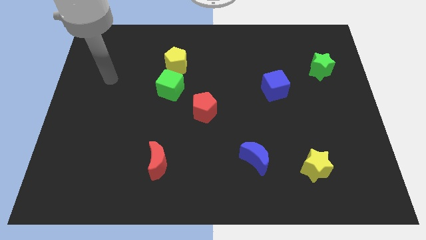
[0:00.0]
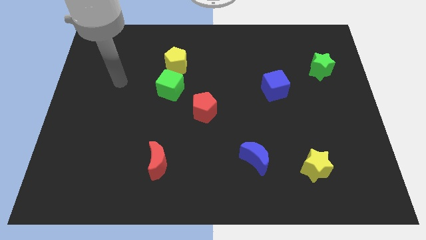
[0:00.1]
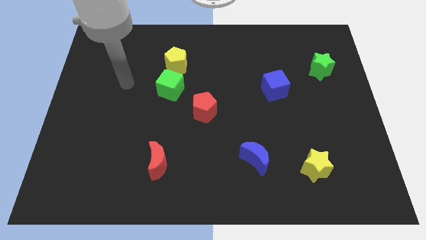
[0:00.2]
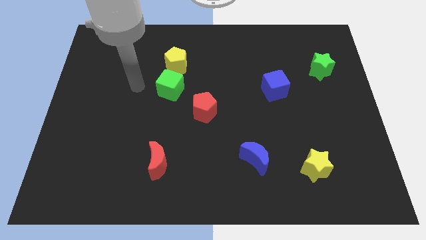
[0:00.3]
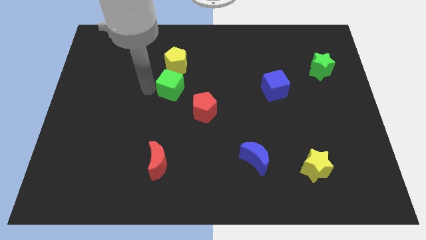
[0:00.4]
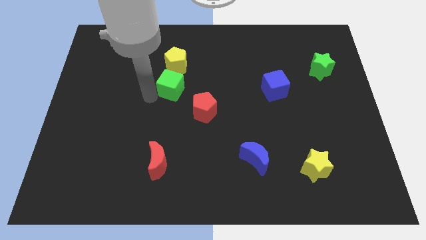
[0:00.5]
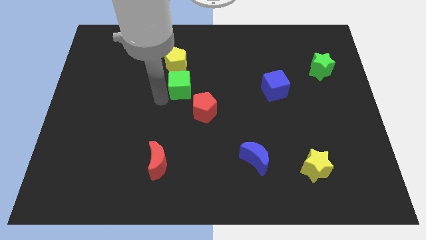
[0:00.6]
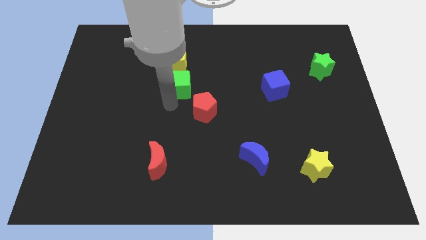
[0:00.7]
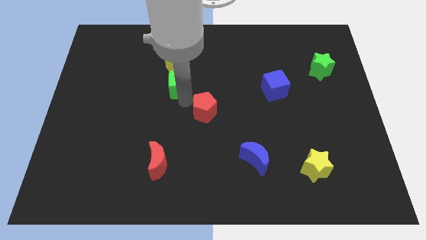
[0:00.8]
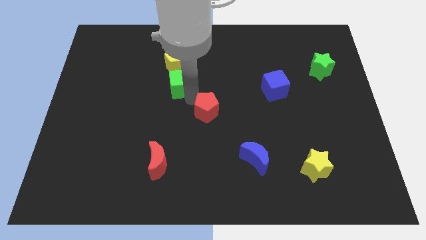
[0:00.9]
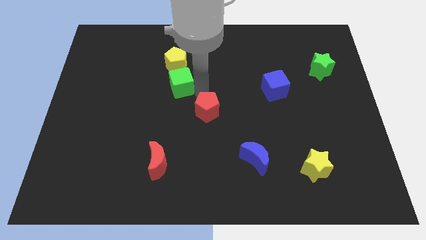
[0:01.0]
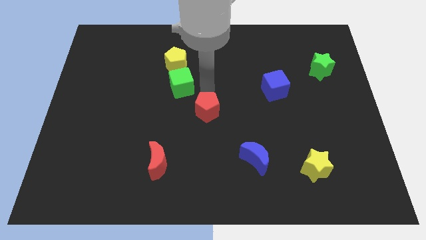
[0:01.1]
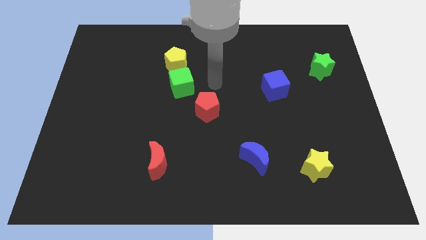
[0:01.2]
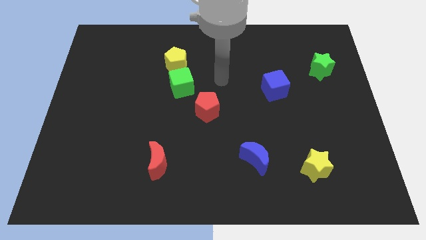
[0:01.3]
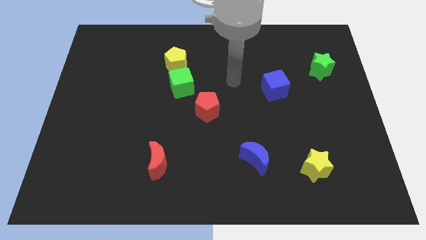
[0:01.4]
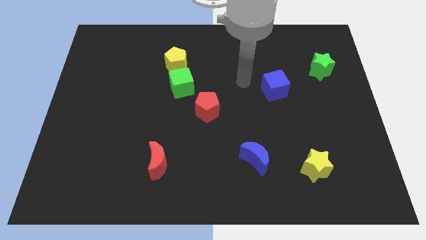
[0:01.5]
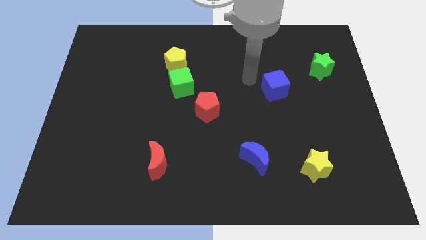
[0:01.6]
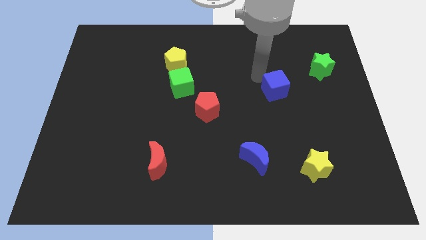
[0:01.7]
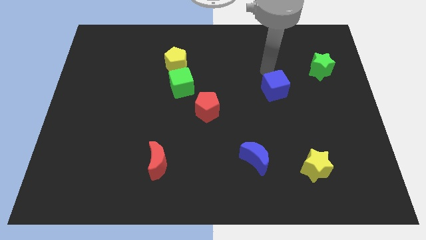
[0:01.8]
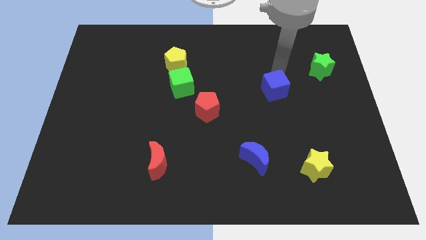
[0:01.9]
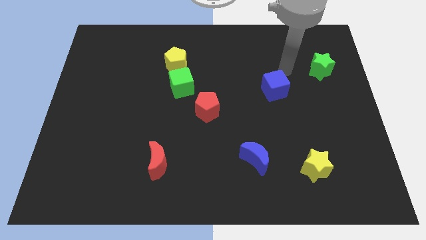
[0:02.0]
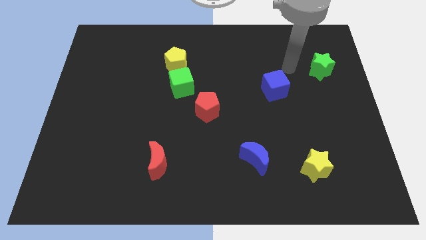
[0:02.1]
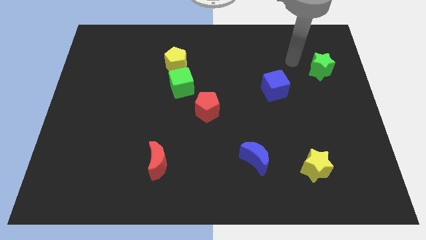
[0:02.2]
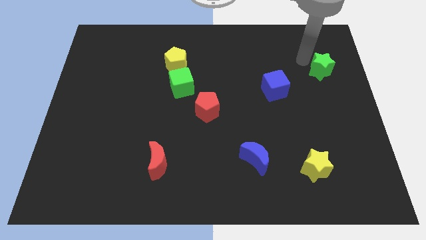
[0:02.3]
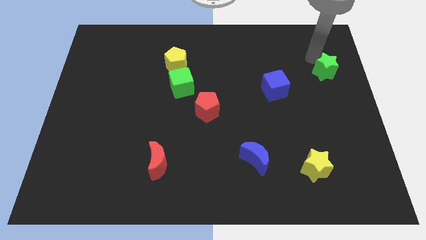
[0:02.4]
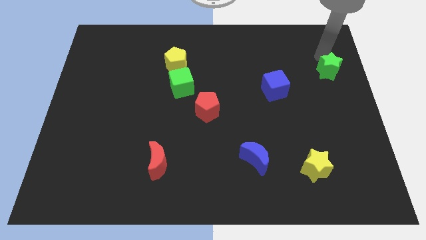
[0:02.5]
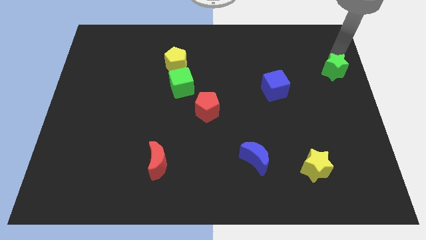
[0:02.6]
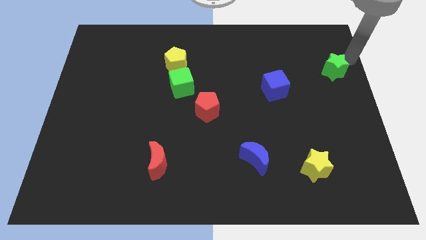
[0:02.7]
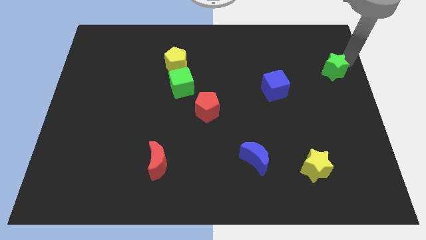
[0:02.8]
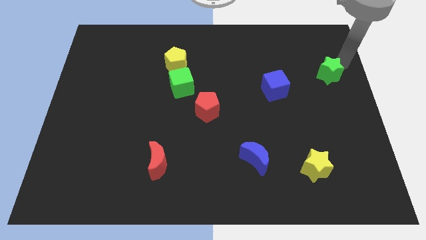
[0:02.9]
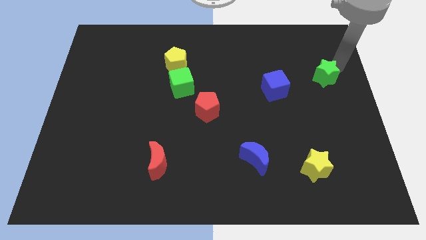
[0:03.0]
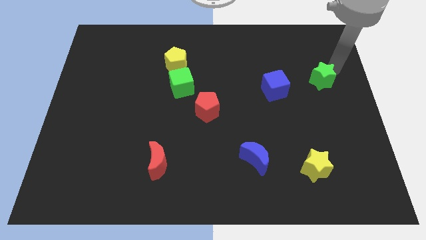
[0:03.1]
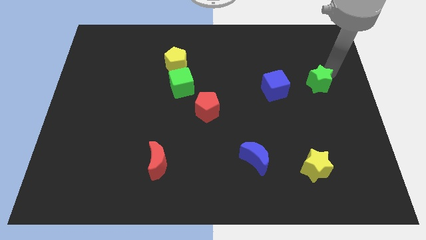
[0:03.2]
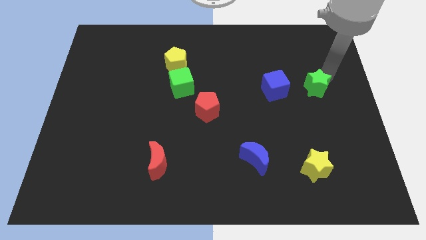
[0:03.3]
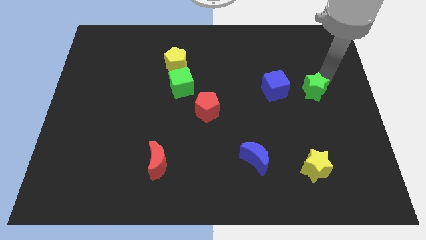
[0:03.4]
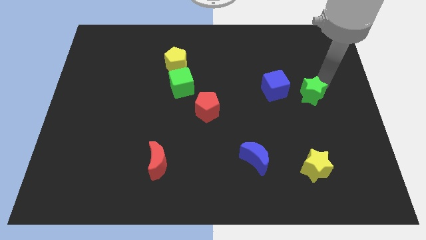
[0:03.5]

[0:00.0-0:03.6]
push the green star a little bit diagonally down and to the left

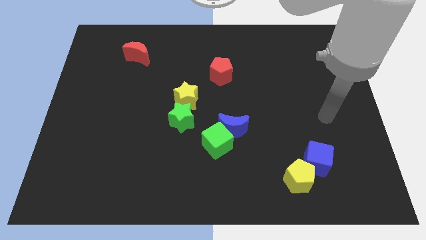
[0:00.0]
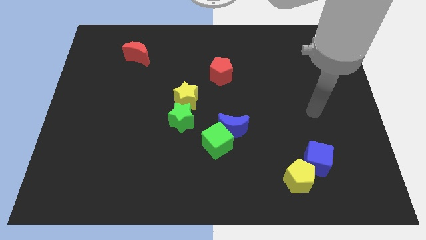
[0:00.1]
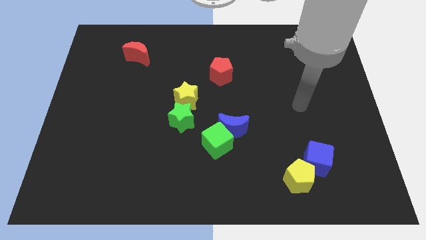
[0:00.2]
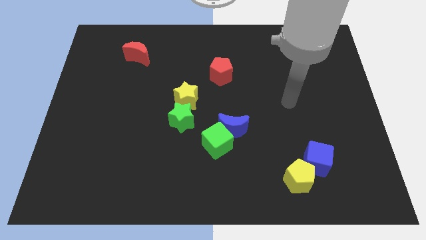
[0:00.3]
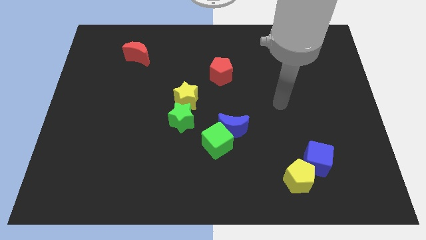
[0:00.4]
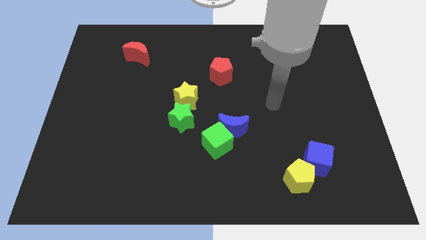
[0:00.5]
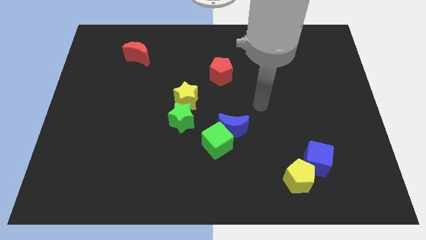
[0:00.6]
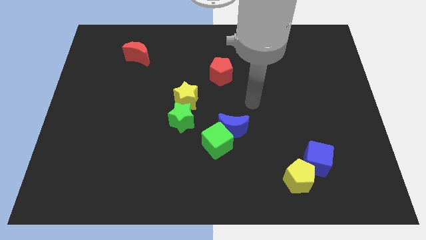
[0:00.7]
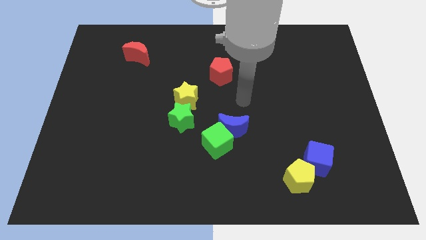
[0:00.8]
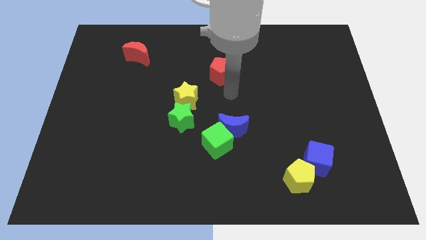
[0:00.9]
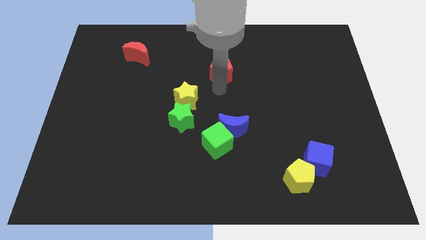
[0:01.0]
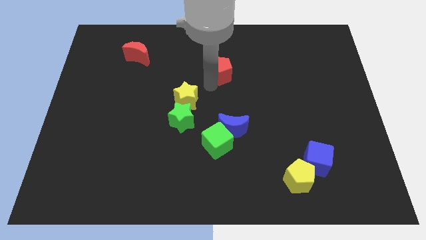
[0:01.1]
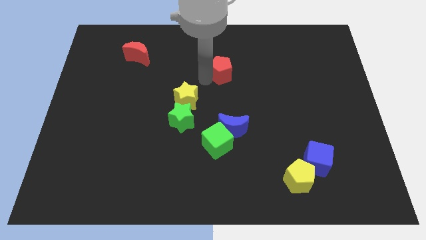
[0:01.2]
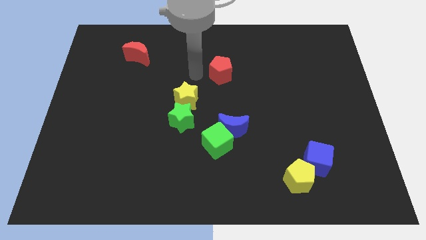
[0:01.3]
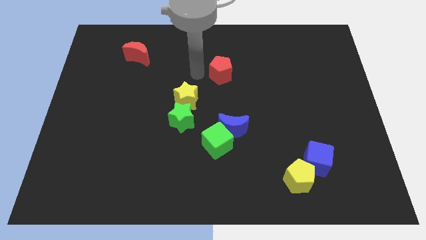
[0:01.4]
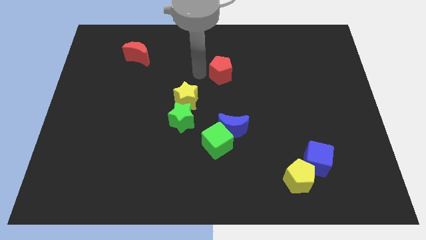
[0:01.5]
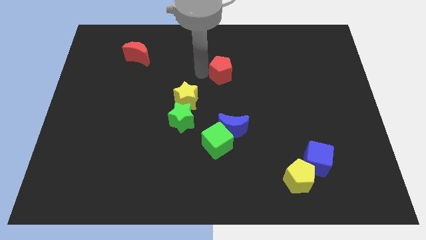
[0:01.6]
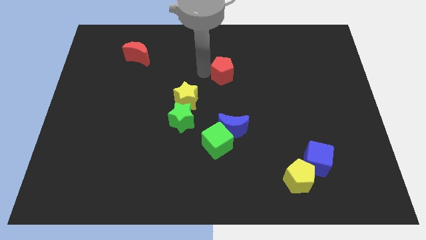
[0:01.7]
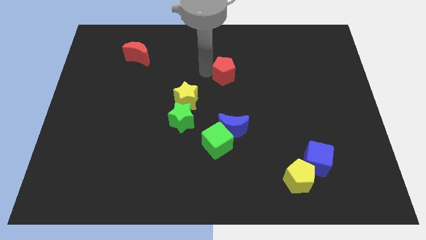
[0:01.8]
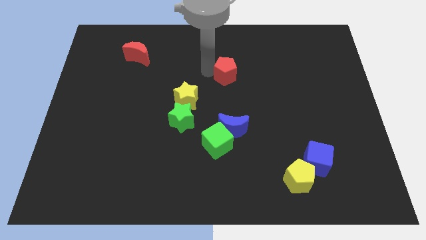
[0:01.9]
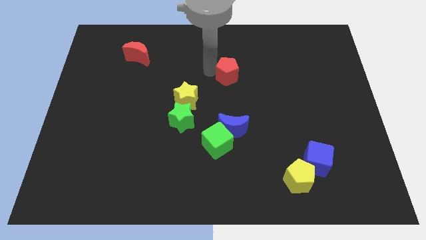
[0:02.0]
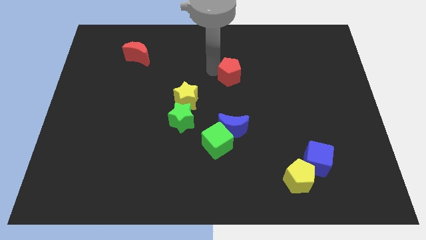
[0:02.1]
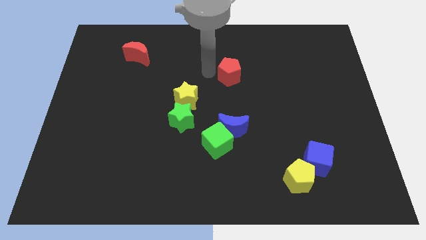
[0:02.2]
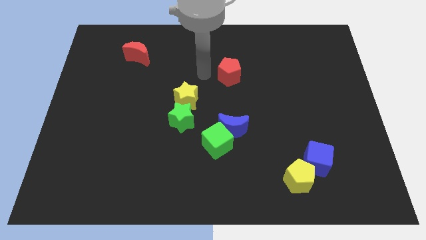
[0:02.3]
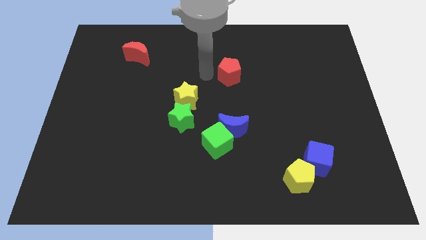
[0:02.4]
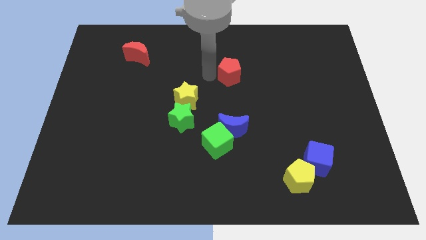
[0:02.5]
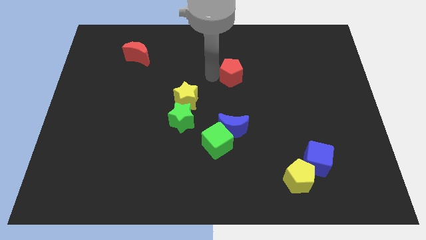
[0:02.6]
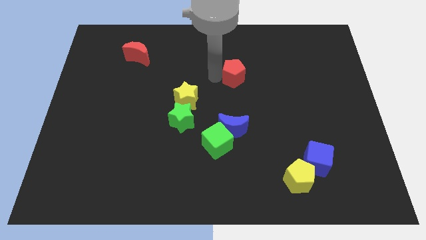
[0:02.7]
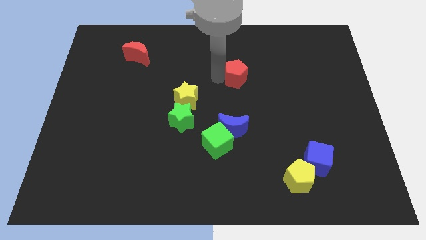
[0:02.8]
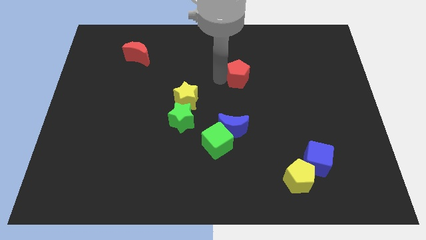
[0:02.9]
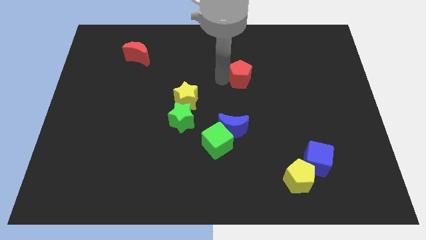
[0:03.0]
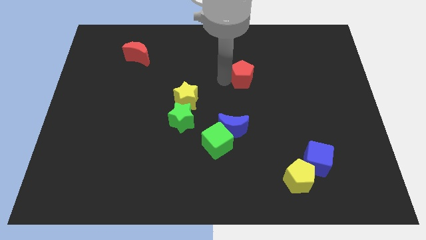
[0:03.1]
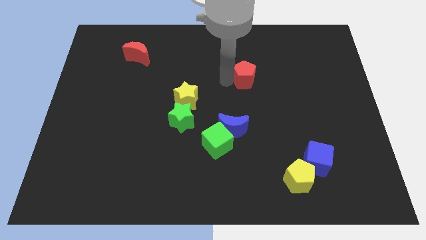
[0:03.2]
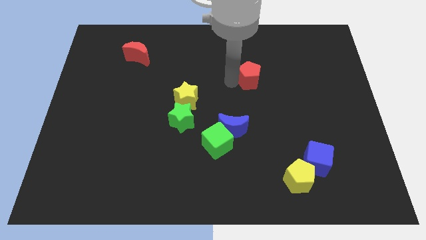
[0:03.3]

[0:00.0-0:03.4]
push the red pentagon a bit right

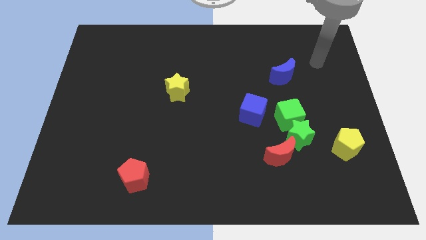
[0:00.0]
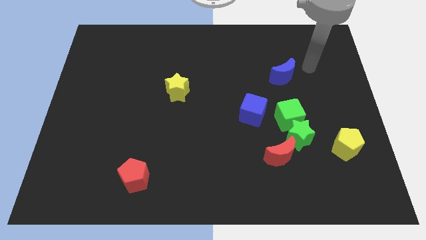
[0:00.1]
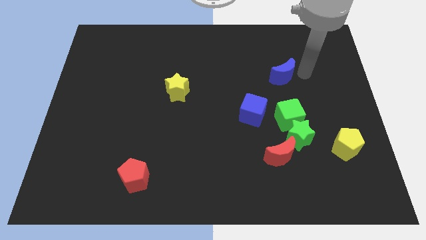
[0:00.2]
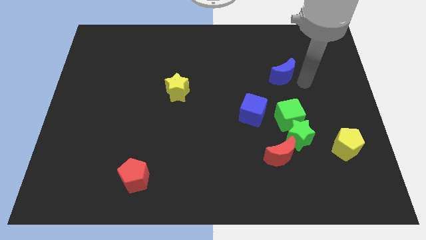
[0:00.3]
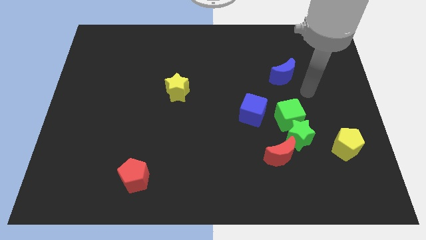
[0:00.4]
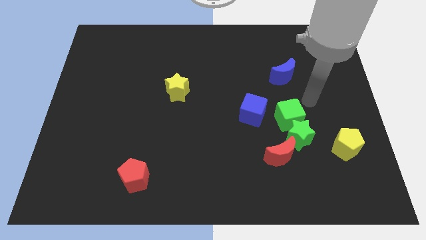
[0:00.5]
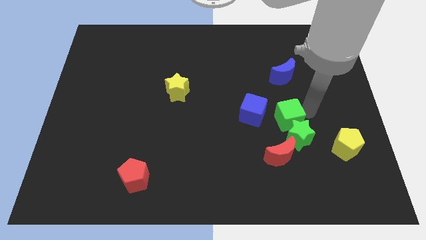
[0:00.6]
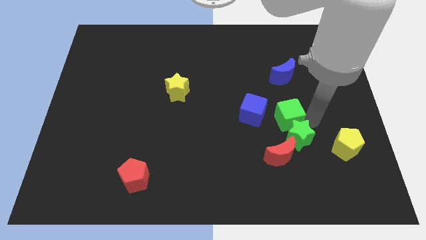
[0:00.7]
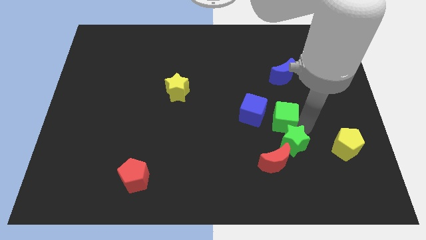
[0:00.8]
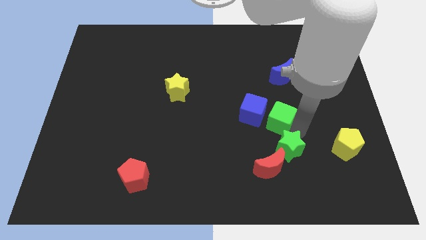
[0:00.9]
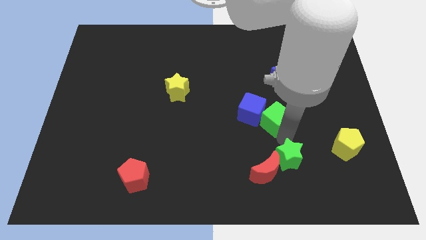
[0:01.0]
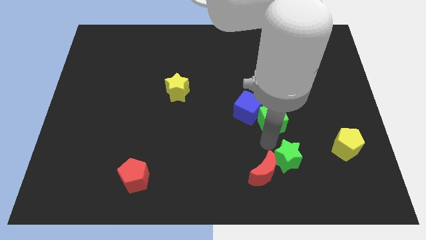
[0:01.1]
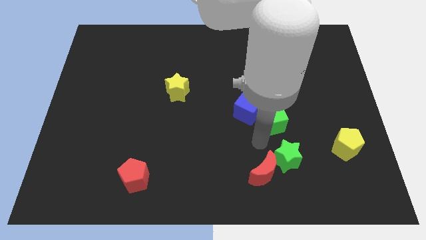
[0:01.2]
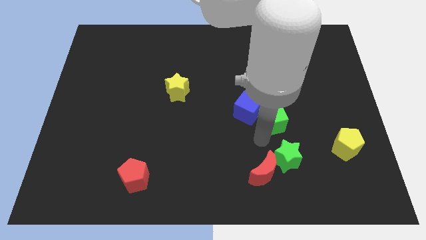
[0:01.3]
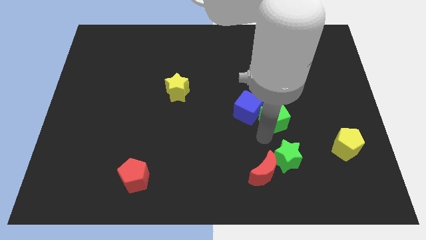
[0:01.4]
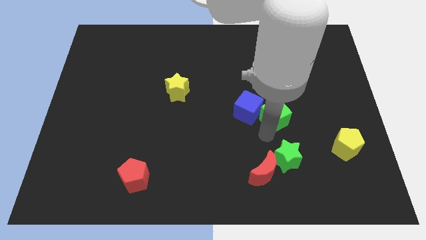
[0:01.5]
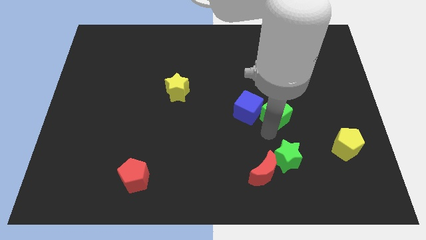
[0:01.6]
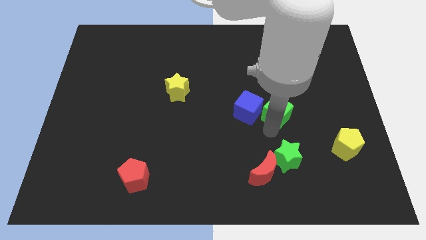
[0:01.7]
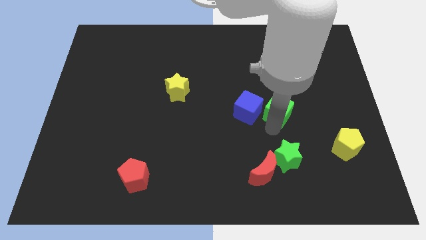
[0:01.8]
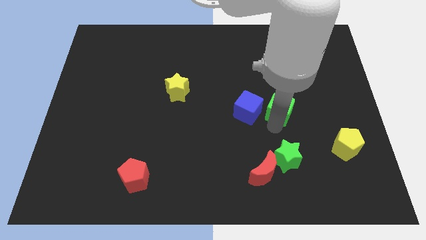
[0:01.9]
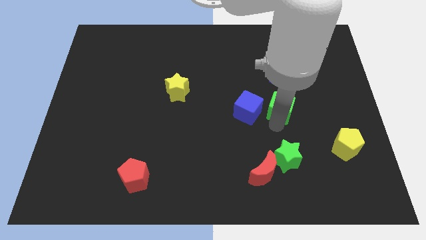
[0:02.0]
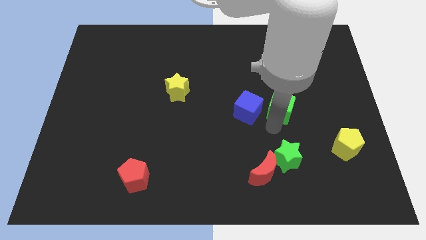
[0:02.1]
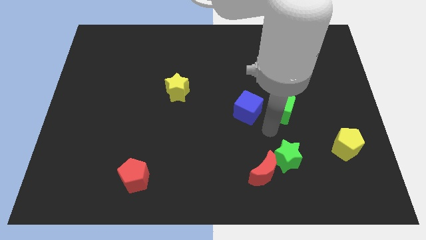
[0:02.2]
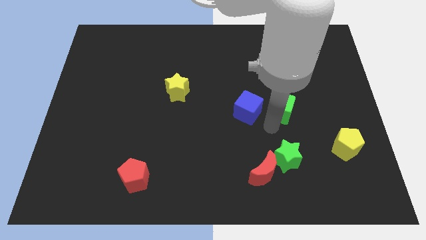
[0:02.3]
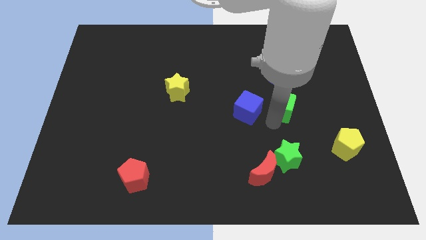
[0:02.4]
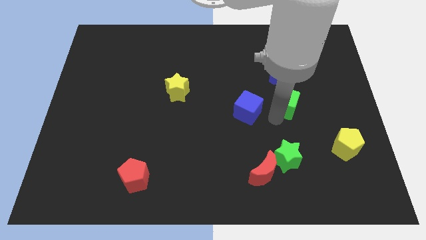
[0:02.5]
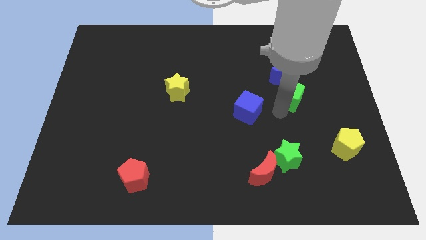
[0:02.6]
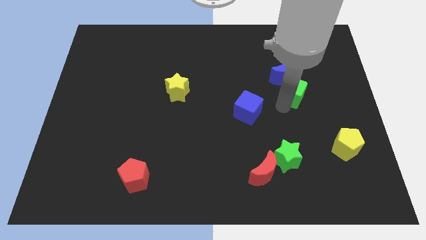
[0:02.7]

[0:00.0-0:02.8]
slightly push the green cube up
